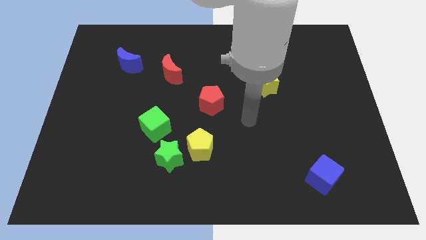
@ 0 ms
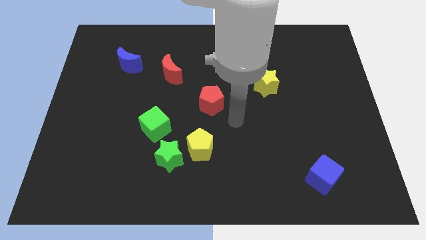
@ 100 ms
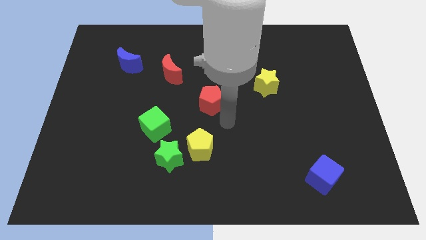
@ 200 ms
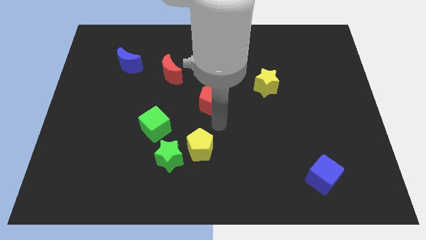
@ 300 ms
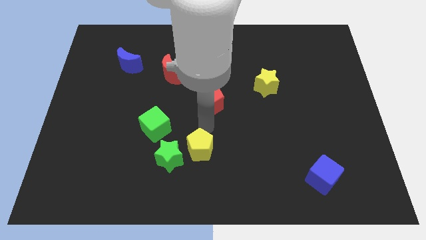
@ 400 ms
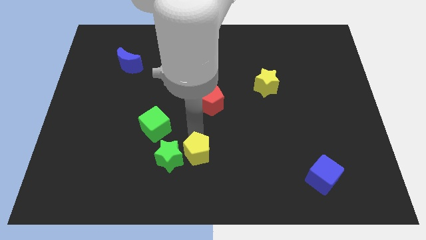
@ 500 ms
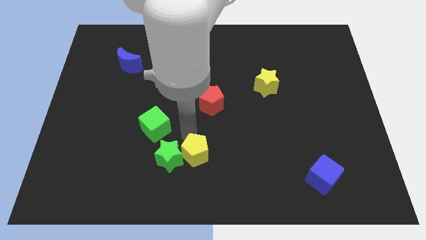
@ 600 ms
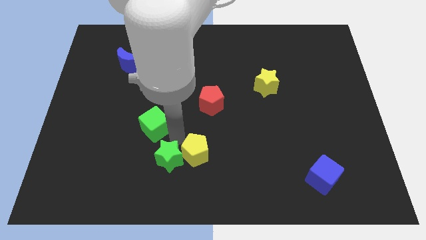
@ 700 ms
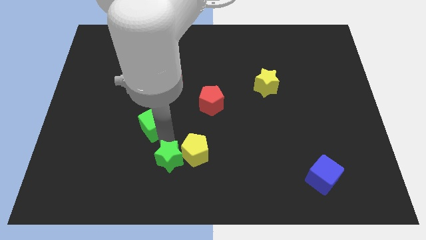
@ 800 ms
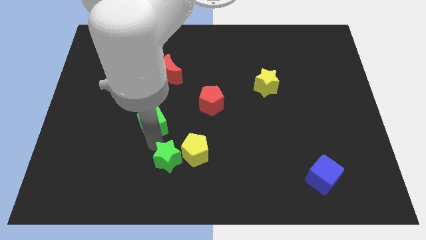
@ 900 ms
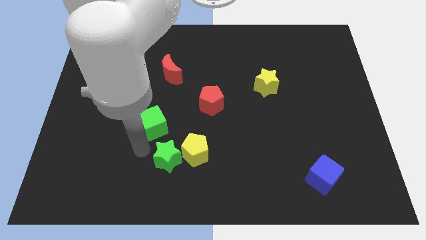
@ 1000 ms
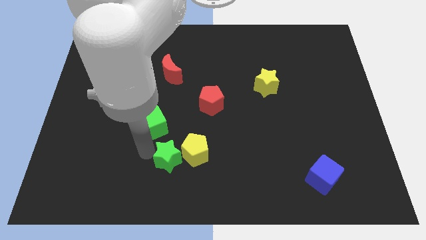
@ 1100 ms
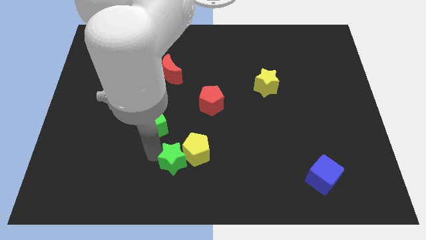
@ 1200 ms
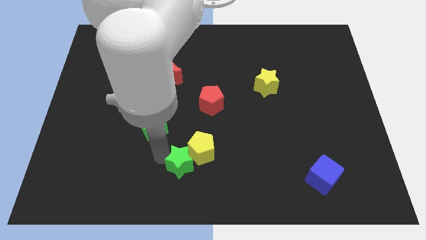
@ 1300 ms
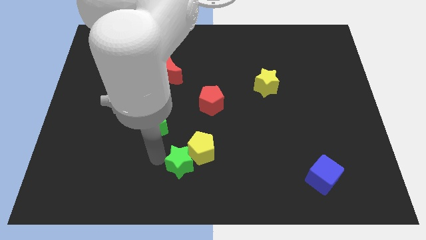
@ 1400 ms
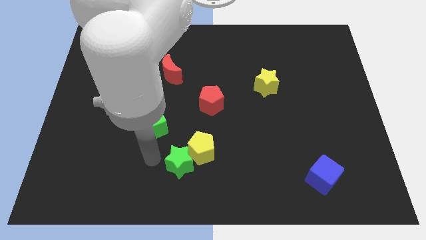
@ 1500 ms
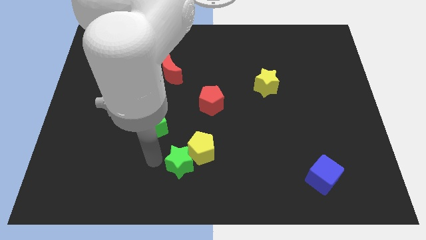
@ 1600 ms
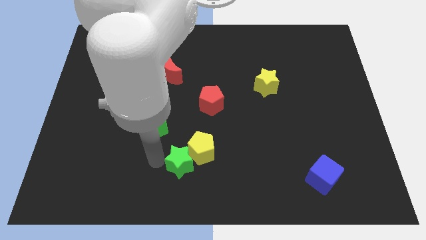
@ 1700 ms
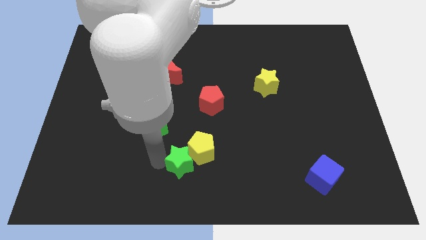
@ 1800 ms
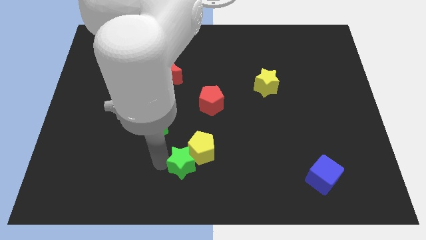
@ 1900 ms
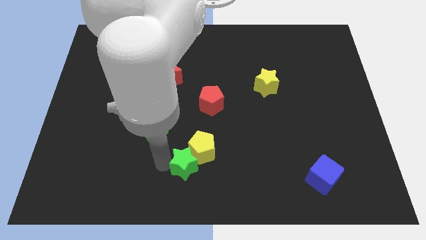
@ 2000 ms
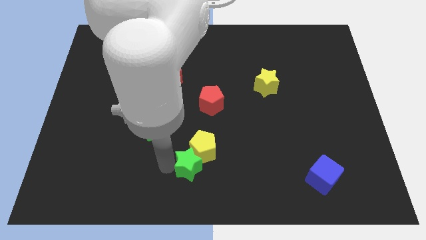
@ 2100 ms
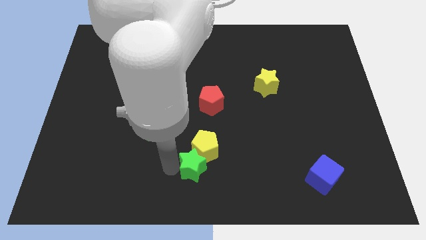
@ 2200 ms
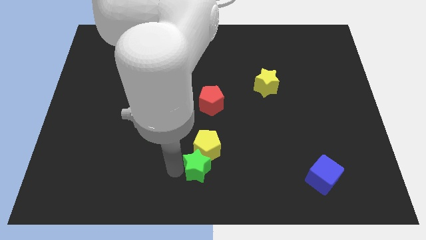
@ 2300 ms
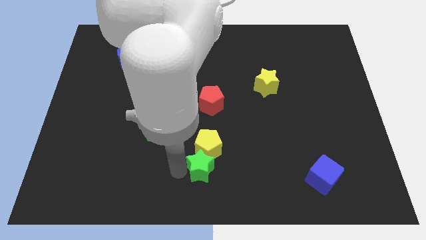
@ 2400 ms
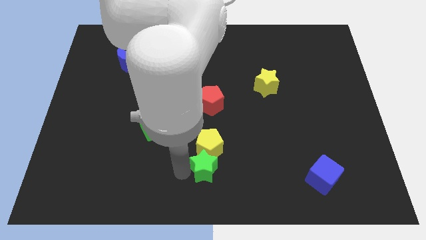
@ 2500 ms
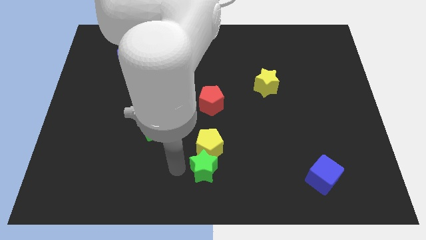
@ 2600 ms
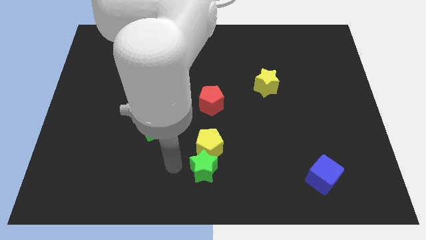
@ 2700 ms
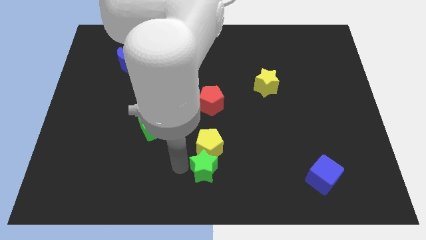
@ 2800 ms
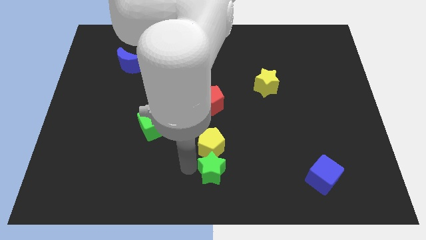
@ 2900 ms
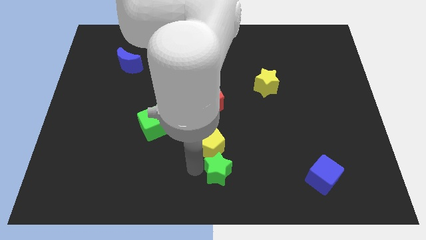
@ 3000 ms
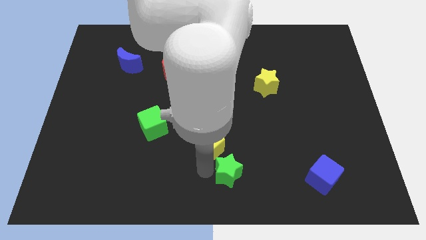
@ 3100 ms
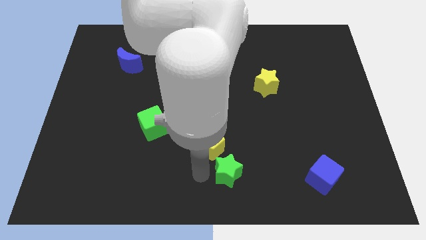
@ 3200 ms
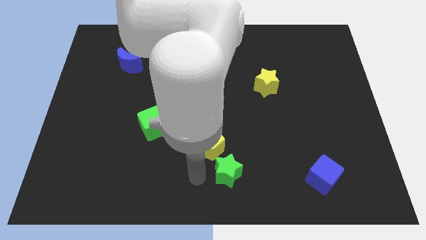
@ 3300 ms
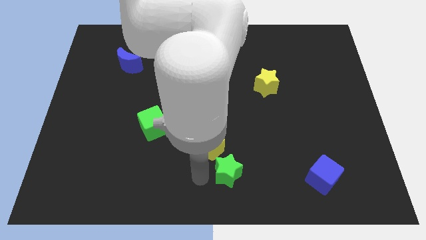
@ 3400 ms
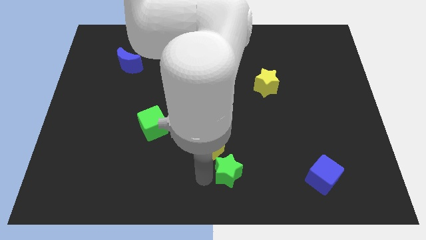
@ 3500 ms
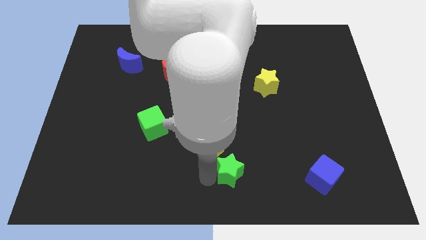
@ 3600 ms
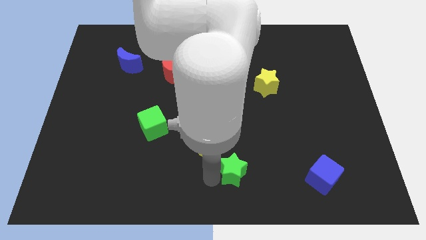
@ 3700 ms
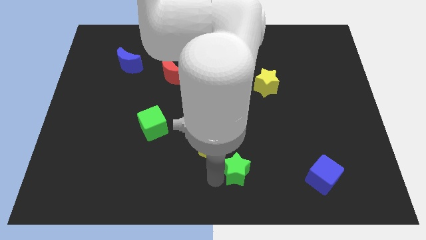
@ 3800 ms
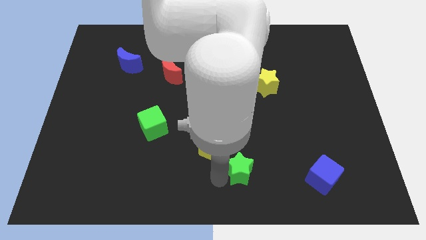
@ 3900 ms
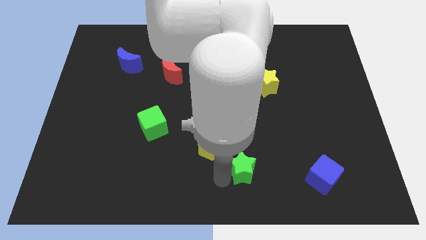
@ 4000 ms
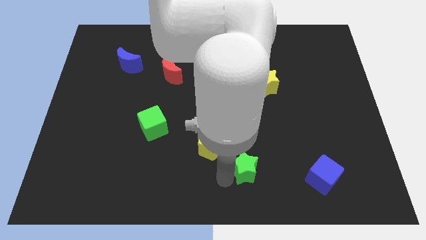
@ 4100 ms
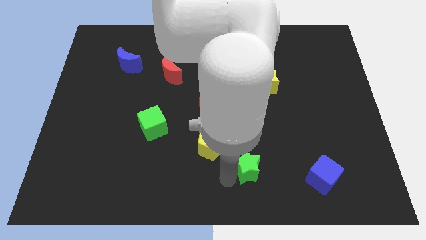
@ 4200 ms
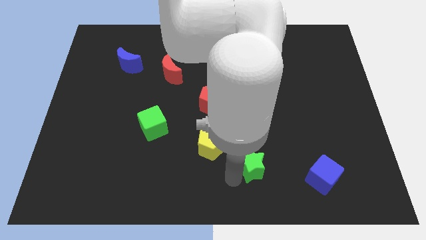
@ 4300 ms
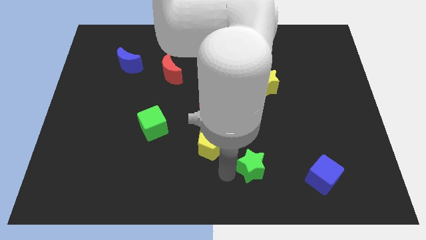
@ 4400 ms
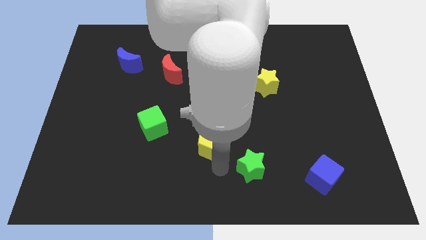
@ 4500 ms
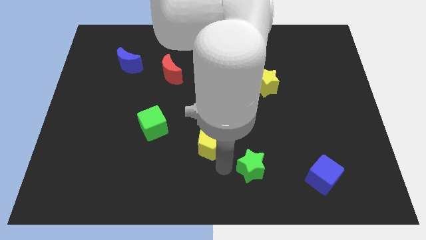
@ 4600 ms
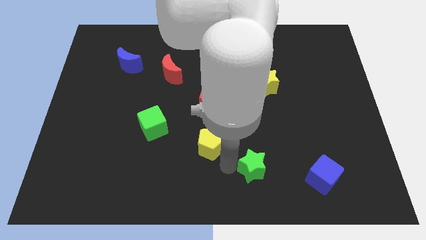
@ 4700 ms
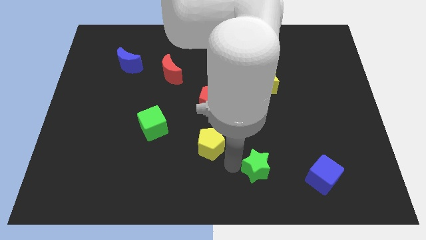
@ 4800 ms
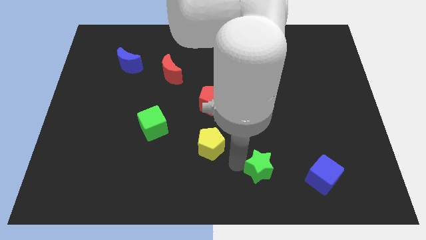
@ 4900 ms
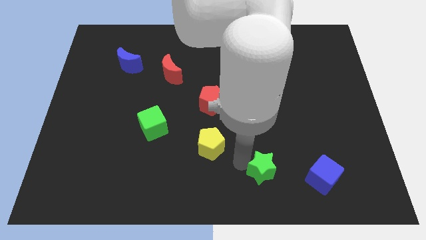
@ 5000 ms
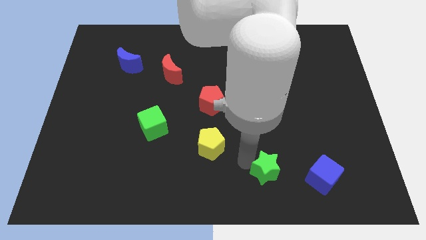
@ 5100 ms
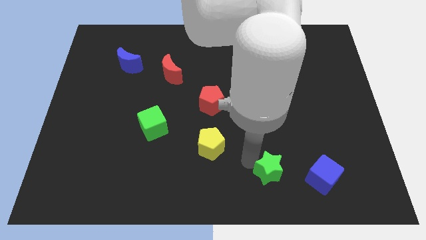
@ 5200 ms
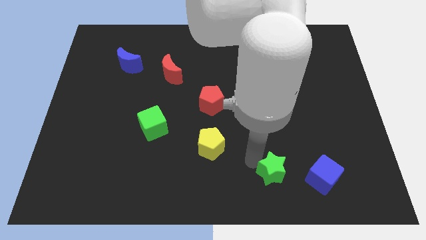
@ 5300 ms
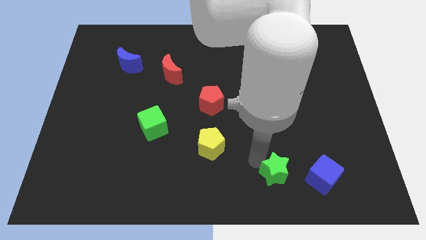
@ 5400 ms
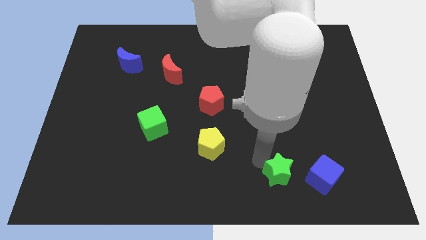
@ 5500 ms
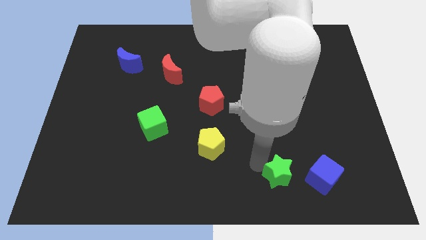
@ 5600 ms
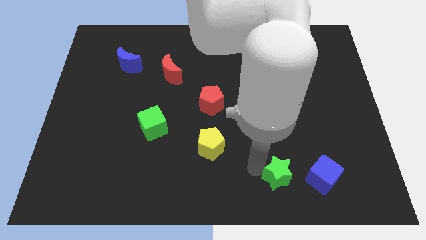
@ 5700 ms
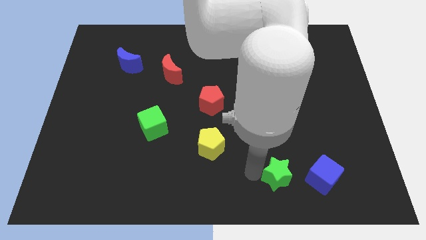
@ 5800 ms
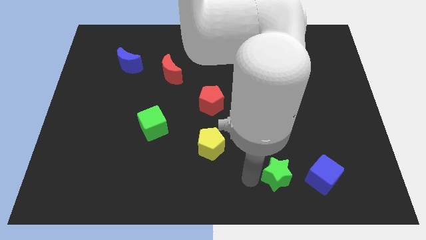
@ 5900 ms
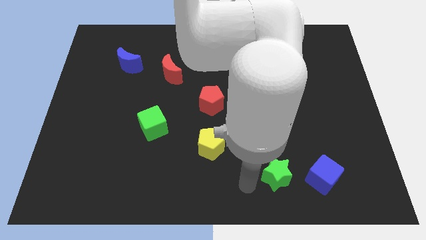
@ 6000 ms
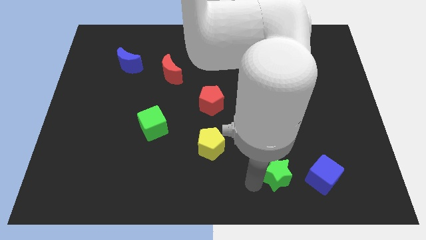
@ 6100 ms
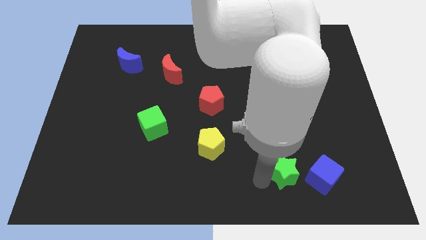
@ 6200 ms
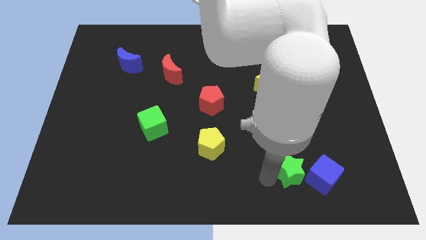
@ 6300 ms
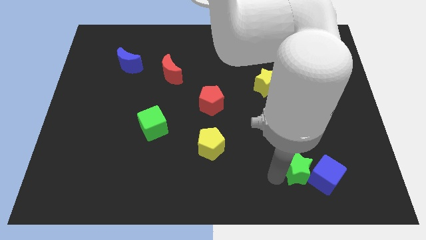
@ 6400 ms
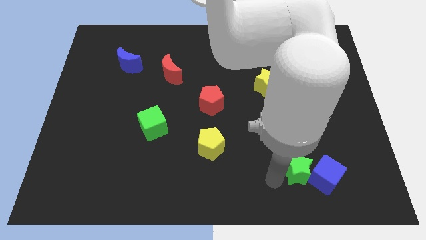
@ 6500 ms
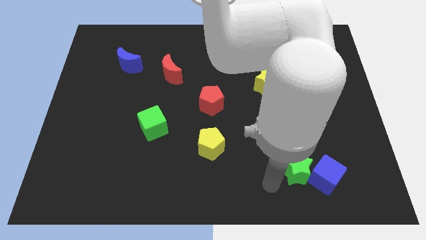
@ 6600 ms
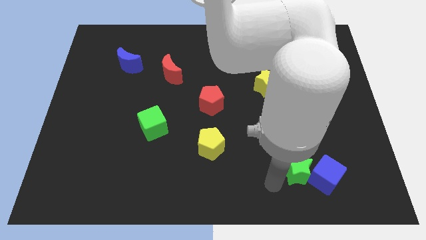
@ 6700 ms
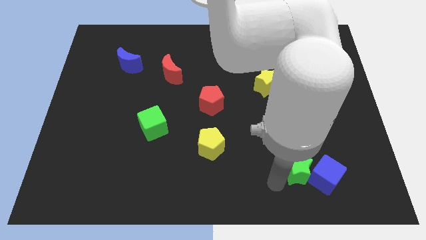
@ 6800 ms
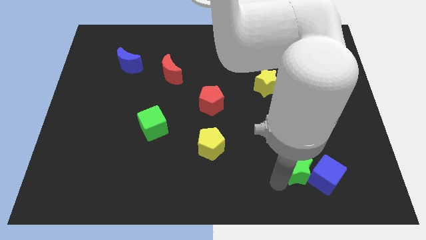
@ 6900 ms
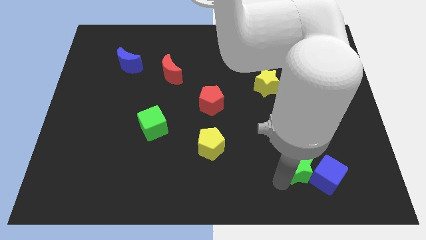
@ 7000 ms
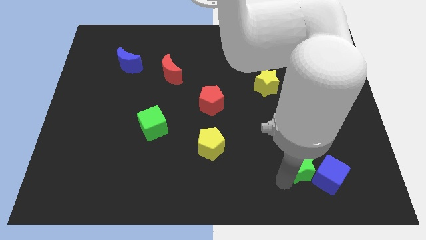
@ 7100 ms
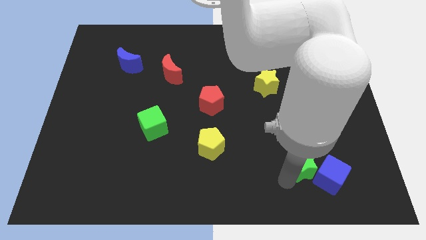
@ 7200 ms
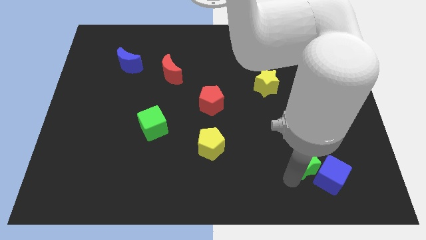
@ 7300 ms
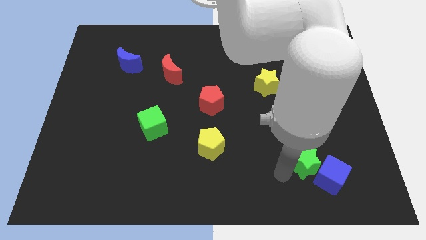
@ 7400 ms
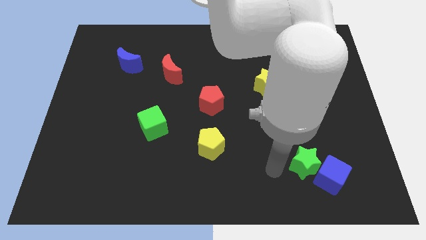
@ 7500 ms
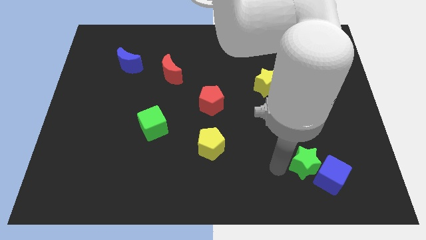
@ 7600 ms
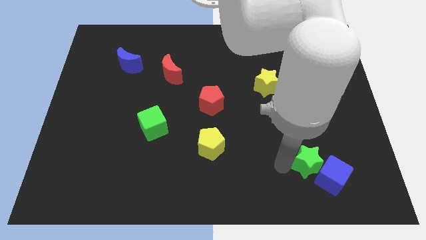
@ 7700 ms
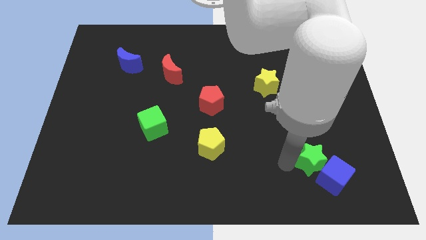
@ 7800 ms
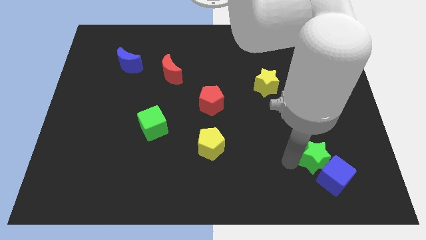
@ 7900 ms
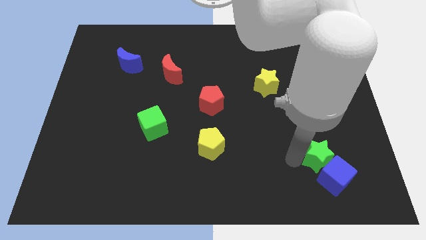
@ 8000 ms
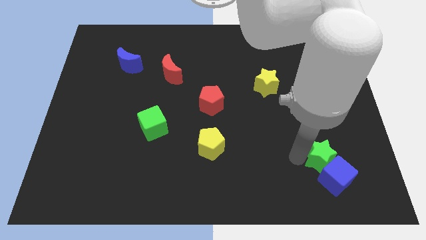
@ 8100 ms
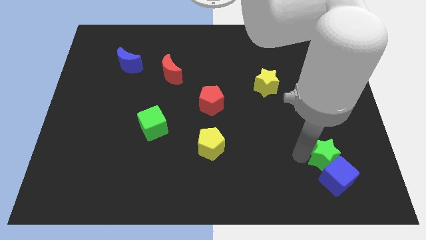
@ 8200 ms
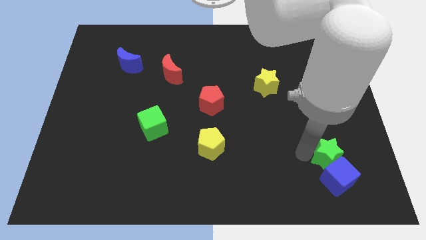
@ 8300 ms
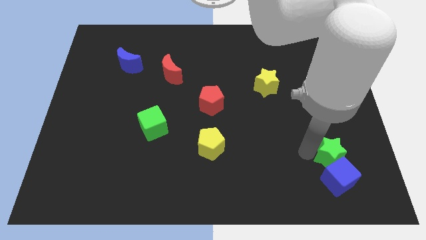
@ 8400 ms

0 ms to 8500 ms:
put the green star to the top right of the blue cube
